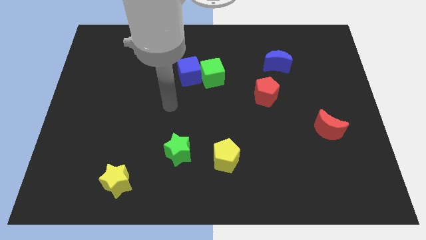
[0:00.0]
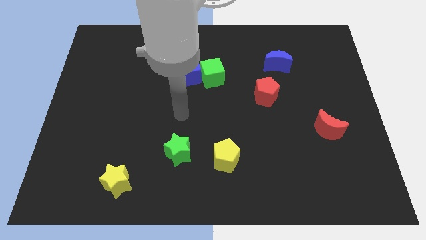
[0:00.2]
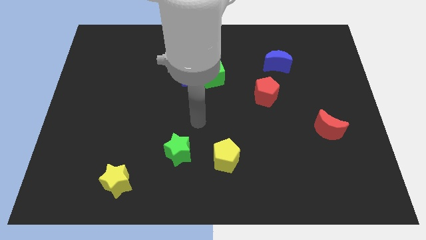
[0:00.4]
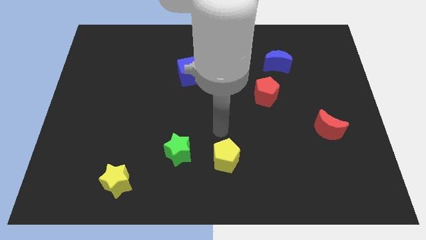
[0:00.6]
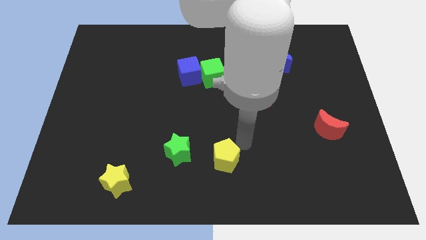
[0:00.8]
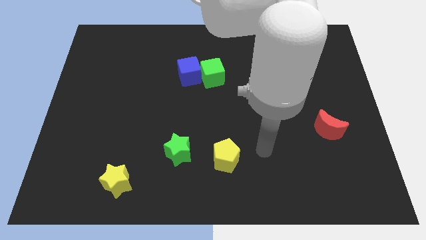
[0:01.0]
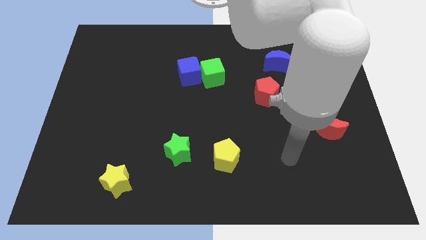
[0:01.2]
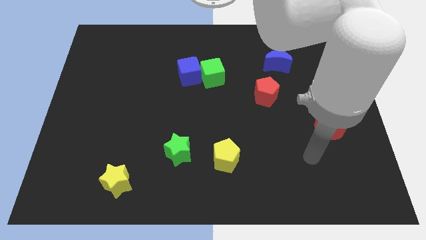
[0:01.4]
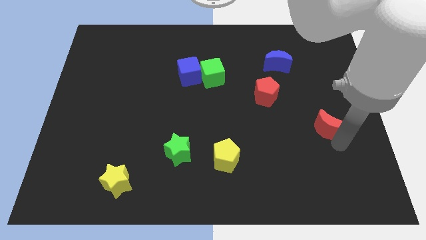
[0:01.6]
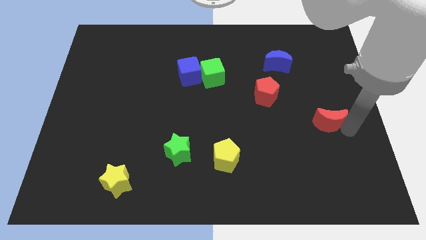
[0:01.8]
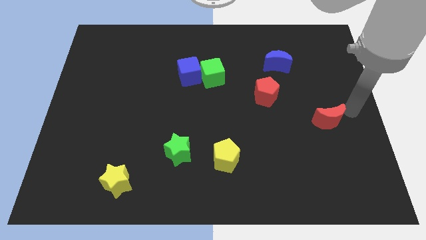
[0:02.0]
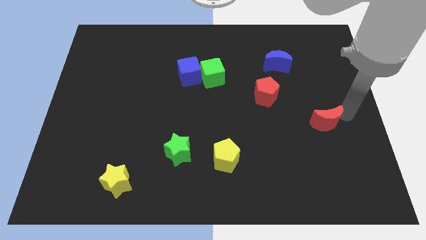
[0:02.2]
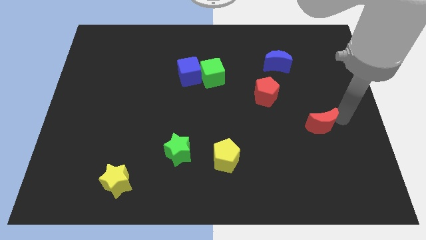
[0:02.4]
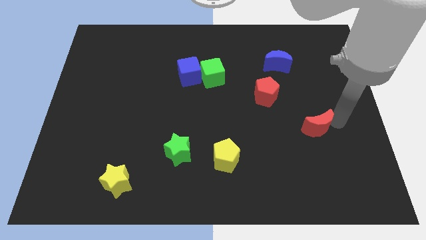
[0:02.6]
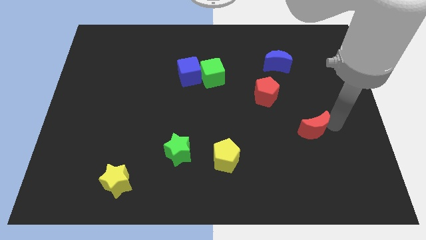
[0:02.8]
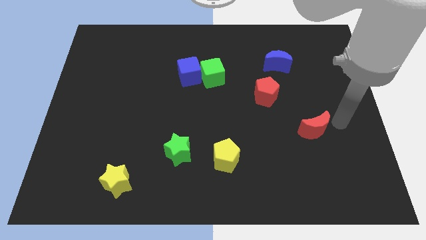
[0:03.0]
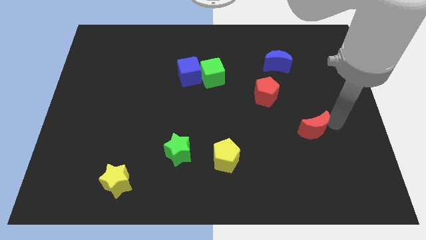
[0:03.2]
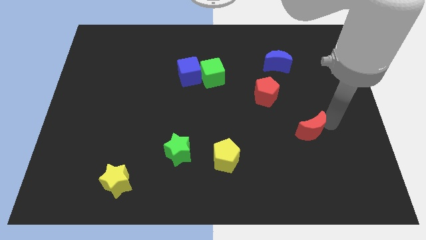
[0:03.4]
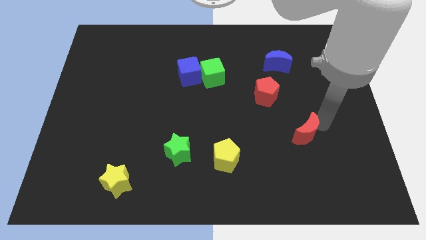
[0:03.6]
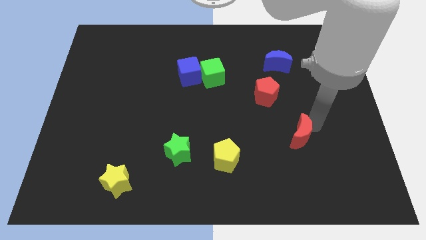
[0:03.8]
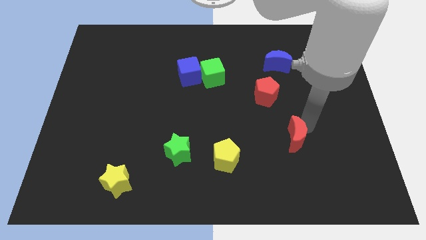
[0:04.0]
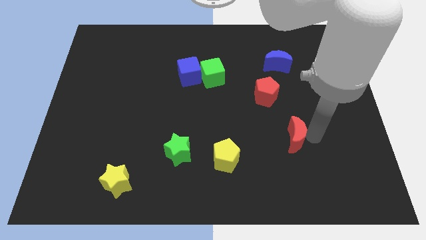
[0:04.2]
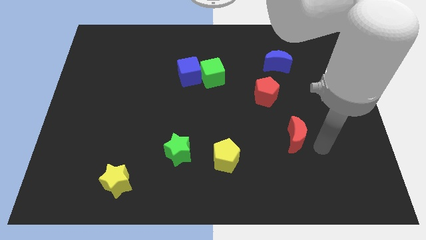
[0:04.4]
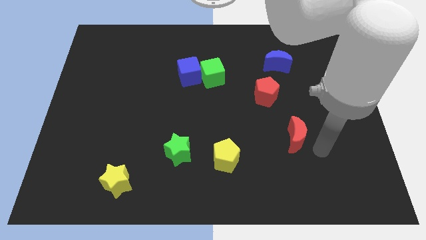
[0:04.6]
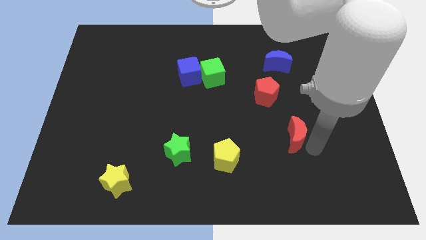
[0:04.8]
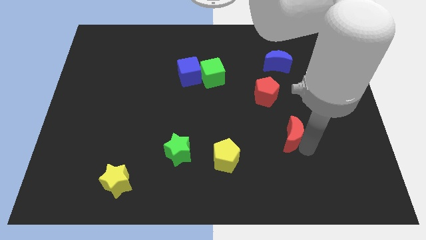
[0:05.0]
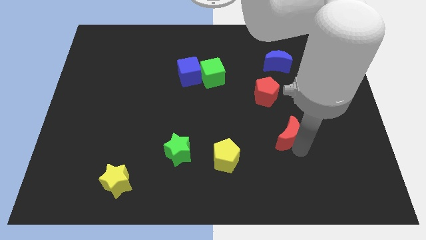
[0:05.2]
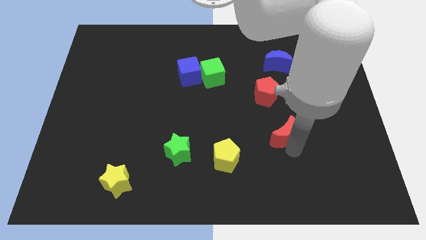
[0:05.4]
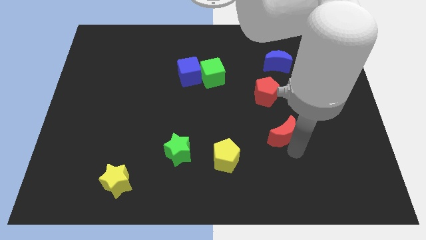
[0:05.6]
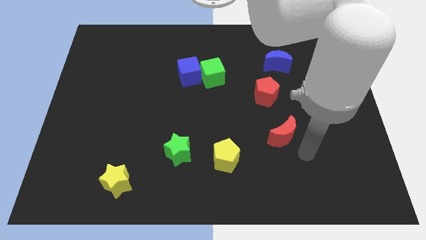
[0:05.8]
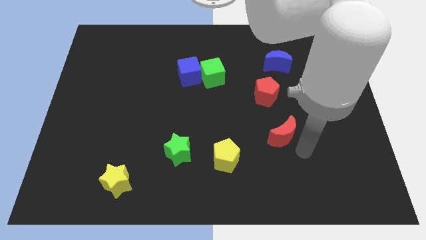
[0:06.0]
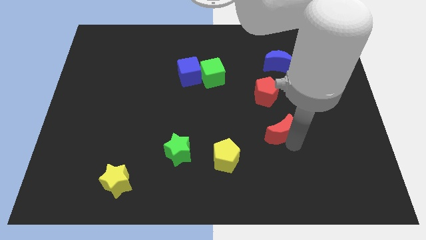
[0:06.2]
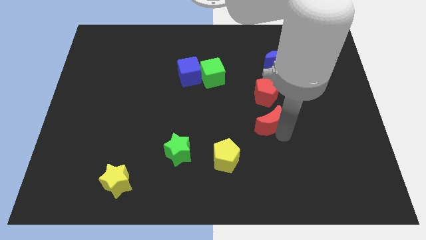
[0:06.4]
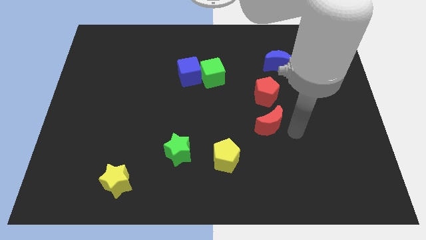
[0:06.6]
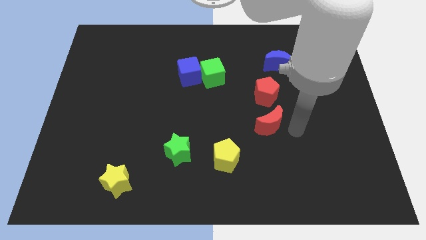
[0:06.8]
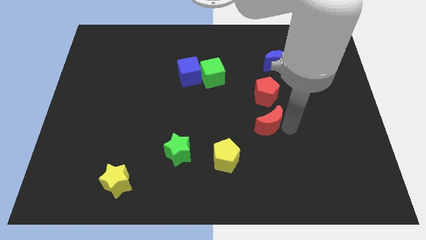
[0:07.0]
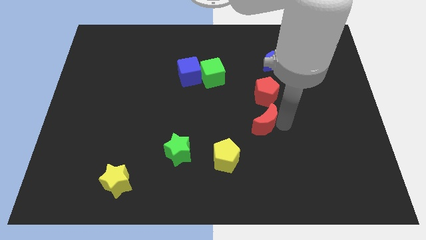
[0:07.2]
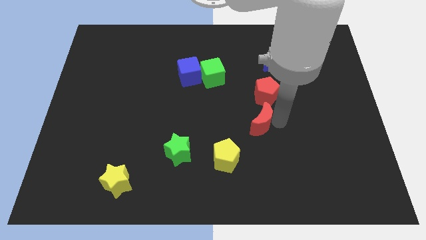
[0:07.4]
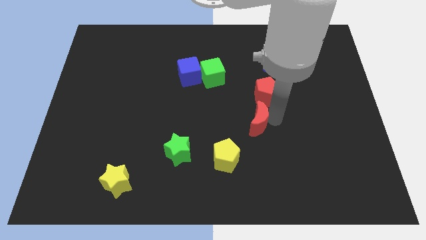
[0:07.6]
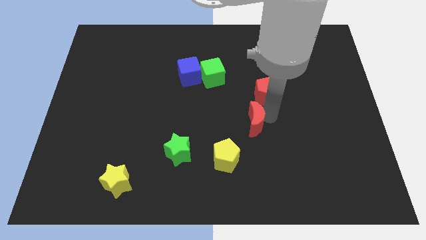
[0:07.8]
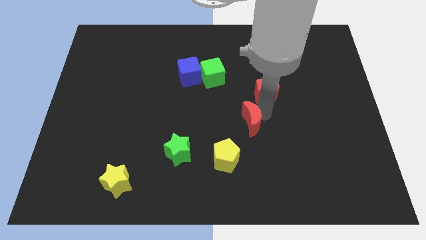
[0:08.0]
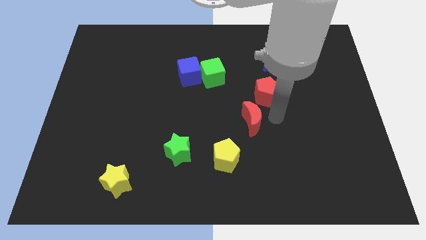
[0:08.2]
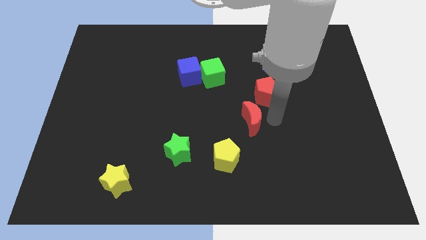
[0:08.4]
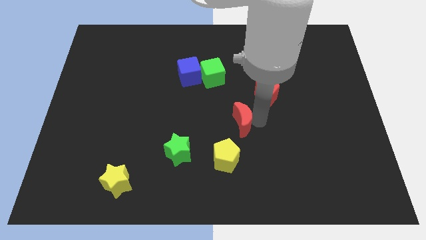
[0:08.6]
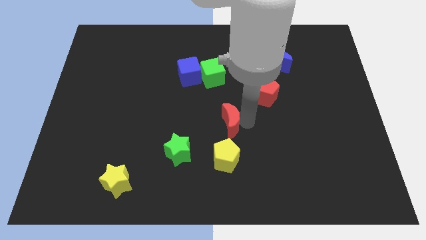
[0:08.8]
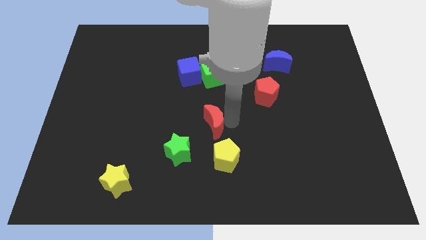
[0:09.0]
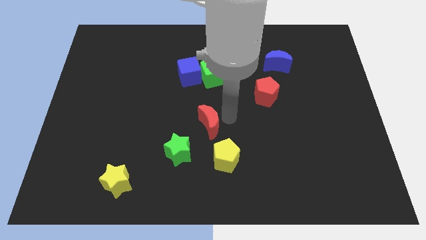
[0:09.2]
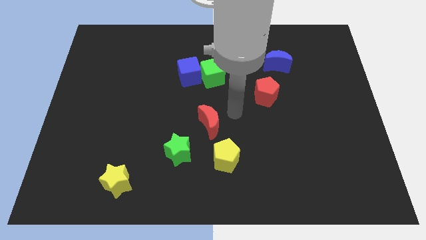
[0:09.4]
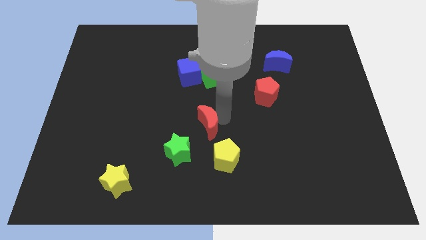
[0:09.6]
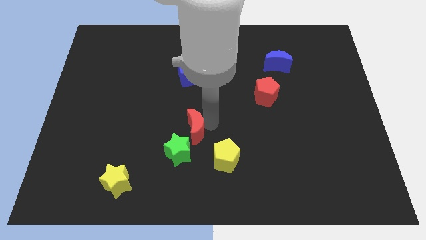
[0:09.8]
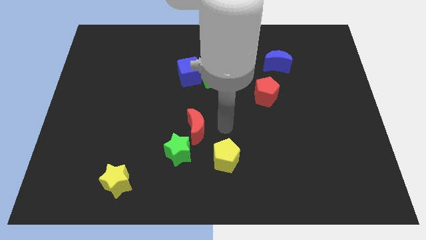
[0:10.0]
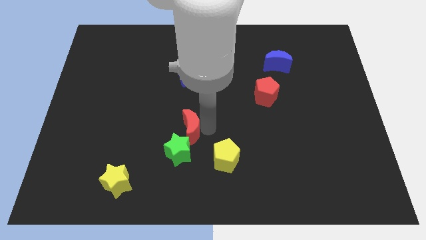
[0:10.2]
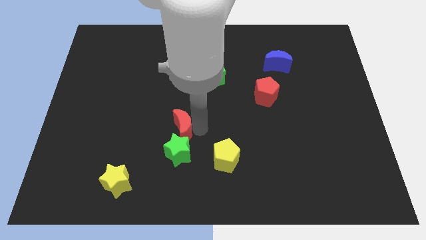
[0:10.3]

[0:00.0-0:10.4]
slide the red moon diagonally up and to the left of the green star

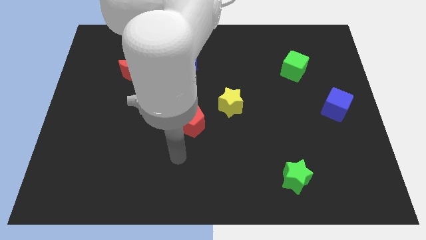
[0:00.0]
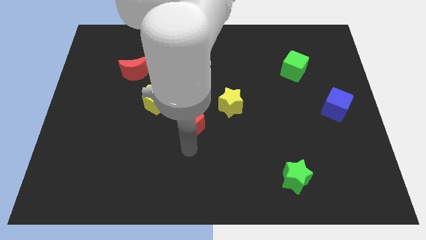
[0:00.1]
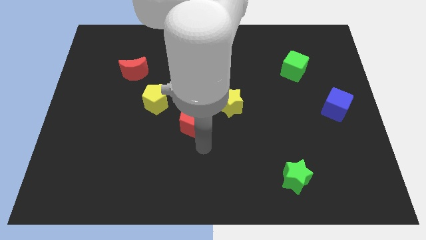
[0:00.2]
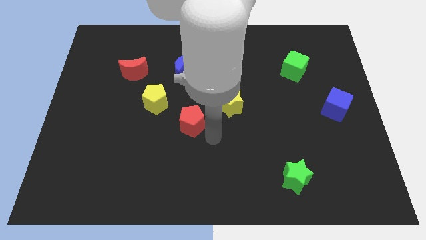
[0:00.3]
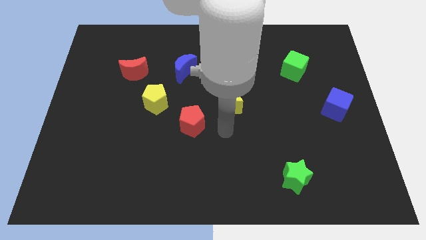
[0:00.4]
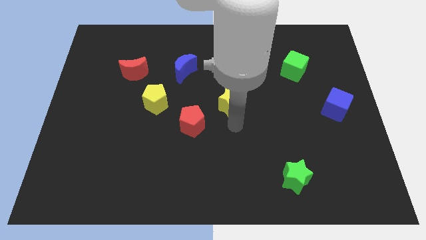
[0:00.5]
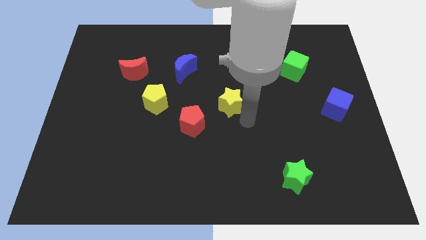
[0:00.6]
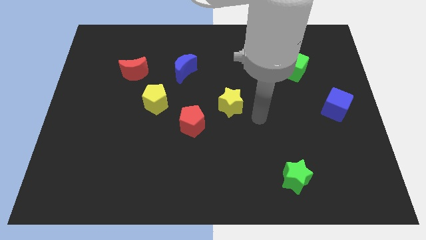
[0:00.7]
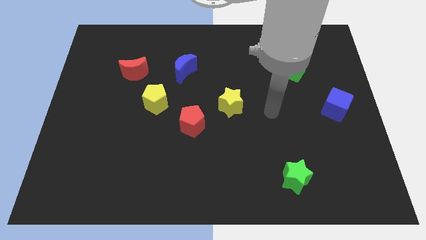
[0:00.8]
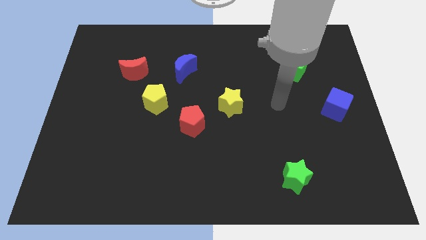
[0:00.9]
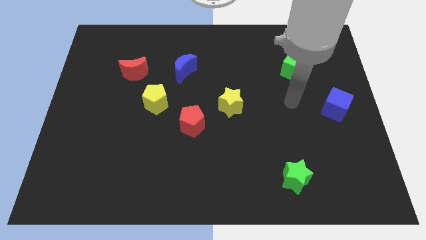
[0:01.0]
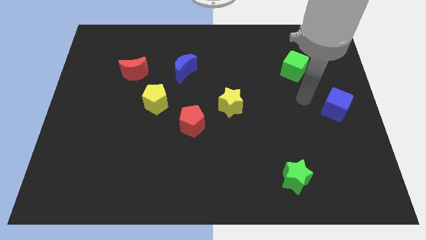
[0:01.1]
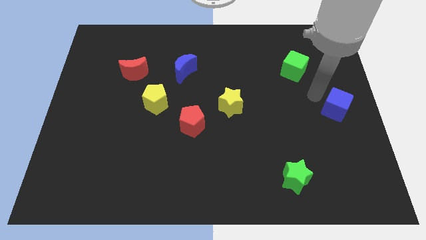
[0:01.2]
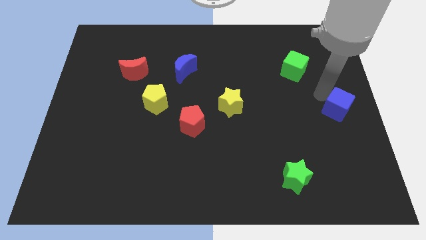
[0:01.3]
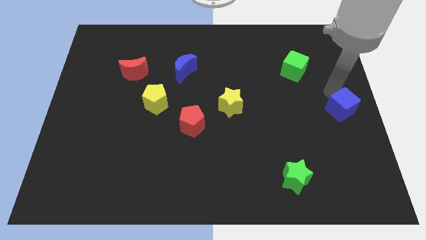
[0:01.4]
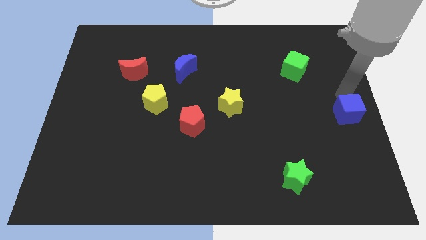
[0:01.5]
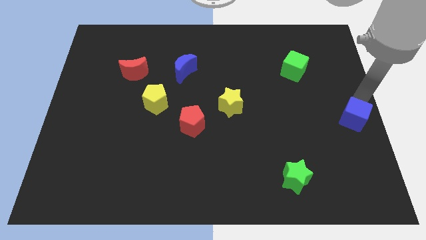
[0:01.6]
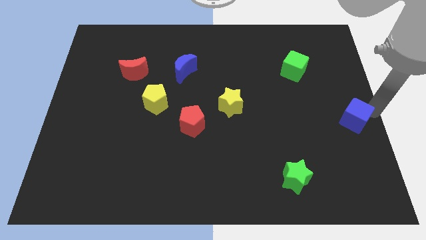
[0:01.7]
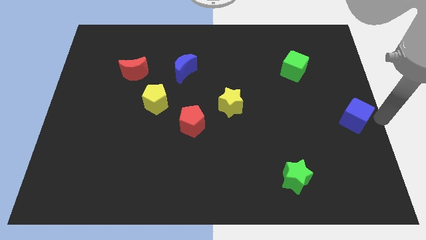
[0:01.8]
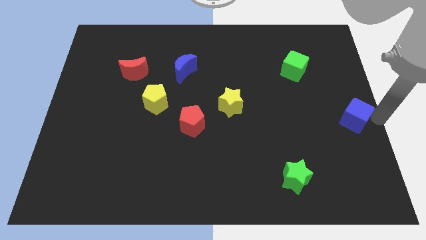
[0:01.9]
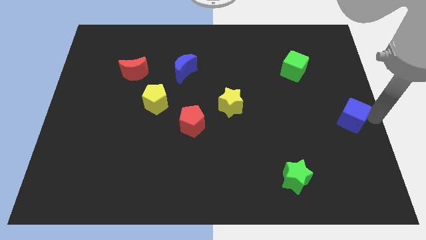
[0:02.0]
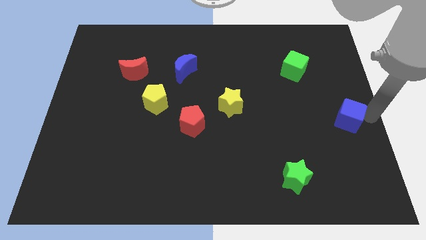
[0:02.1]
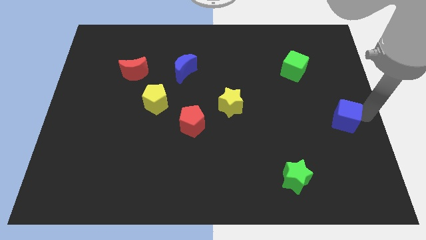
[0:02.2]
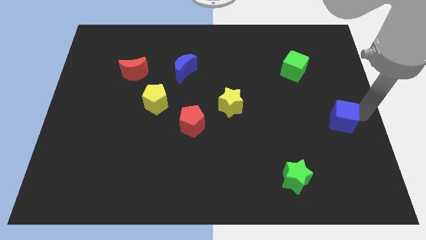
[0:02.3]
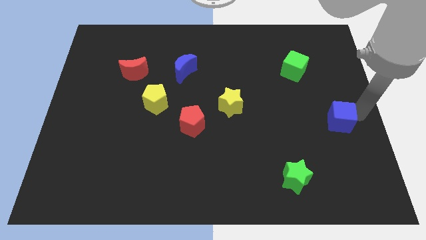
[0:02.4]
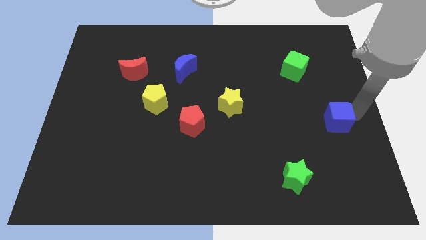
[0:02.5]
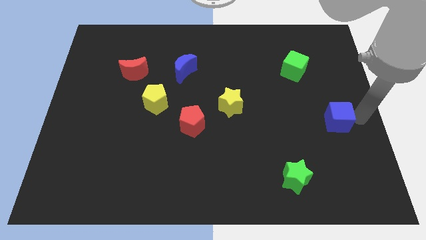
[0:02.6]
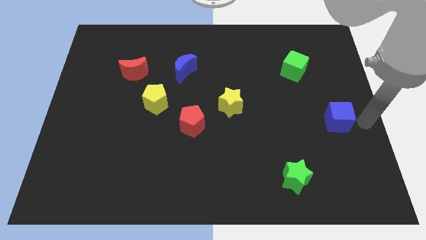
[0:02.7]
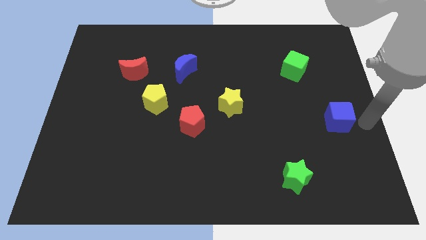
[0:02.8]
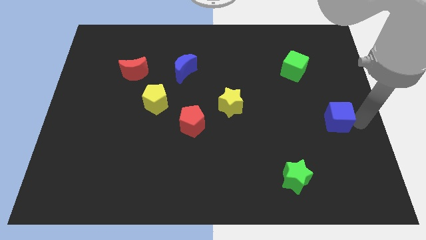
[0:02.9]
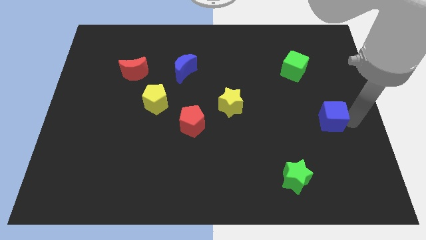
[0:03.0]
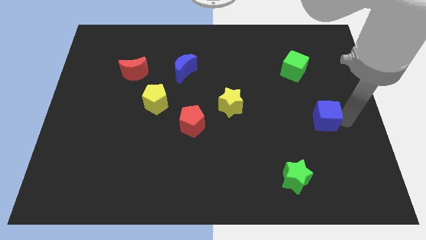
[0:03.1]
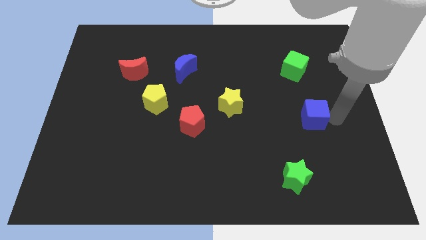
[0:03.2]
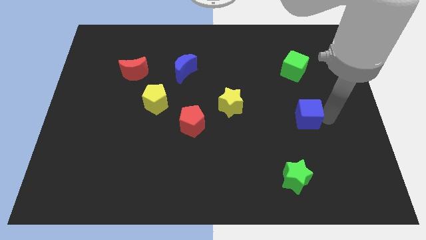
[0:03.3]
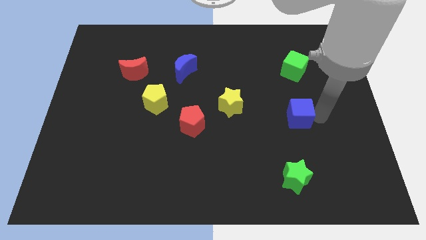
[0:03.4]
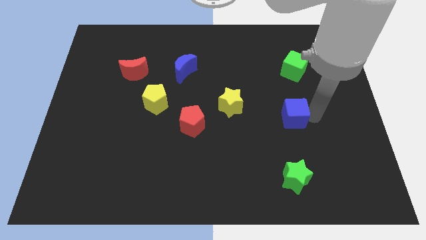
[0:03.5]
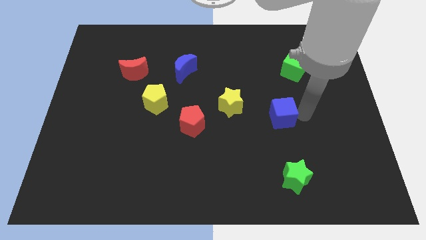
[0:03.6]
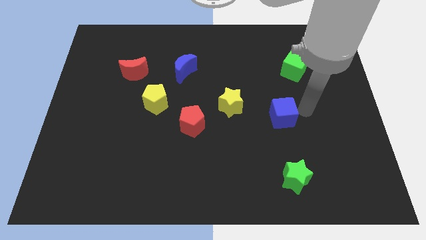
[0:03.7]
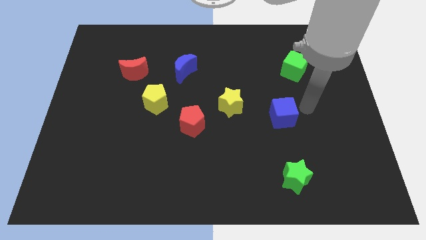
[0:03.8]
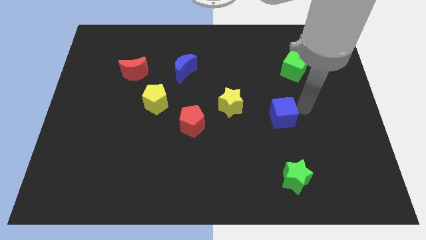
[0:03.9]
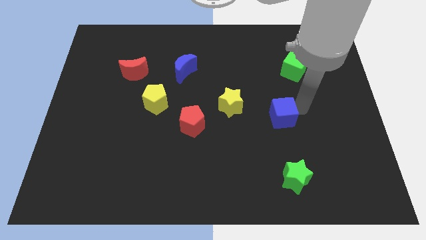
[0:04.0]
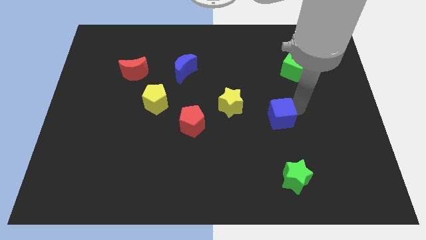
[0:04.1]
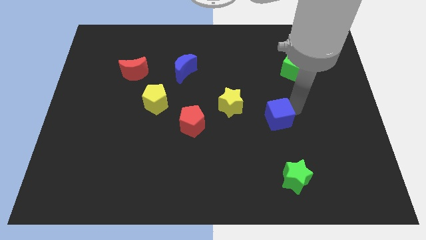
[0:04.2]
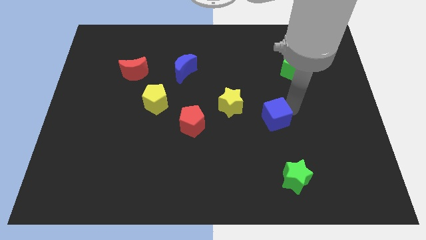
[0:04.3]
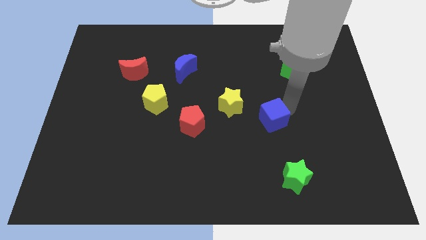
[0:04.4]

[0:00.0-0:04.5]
move the blue cube to the bottom right of the yellow star
